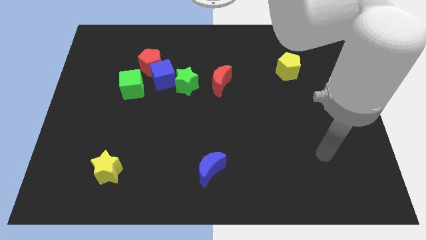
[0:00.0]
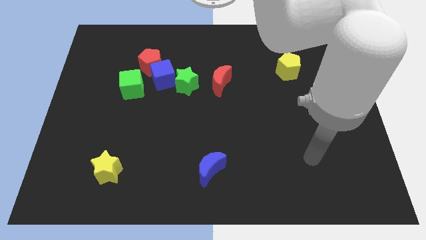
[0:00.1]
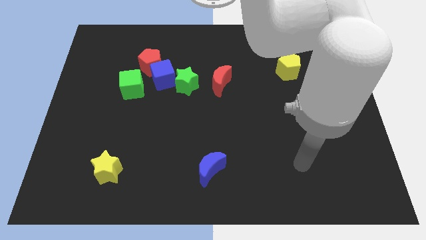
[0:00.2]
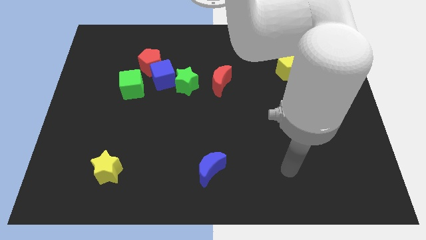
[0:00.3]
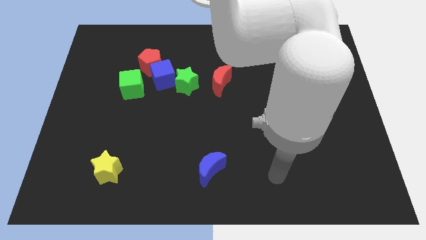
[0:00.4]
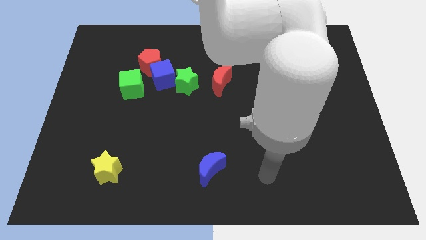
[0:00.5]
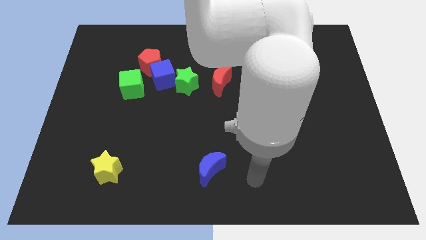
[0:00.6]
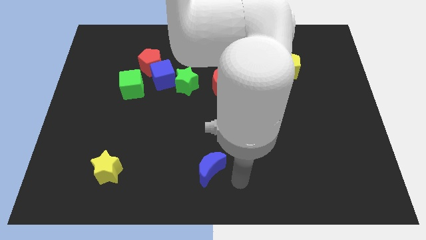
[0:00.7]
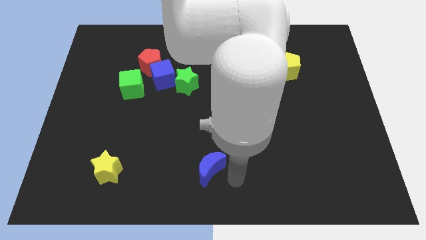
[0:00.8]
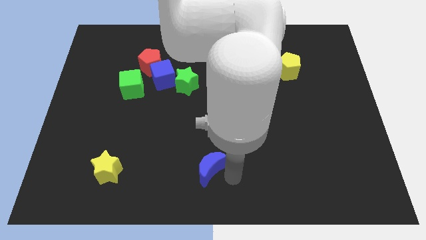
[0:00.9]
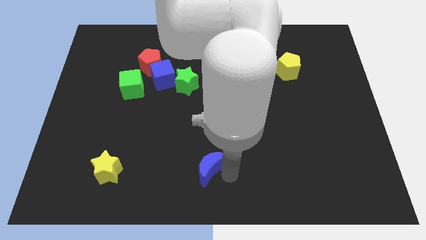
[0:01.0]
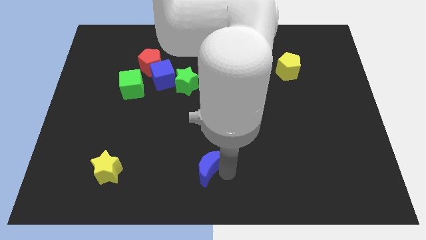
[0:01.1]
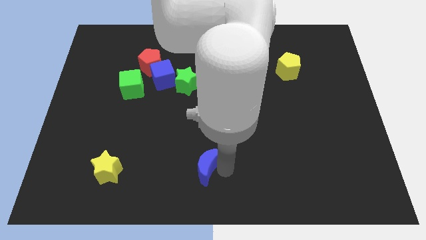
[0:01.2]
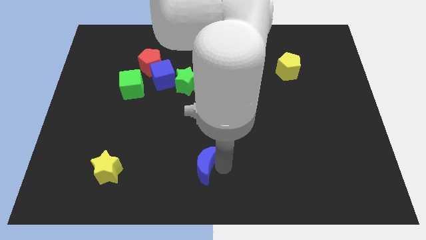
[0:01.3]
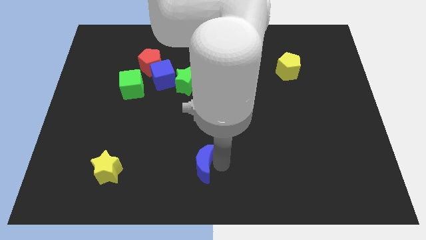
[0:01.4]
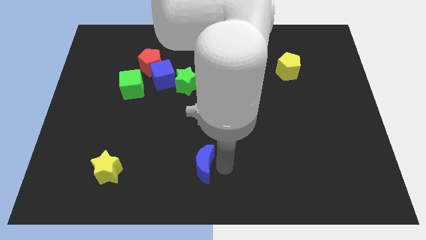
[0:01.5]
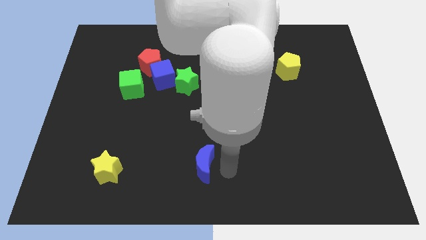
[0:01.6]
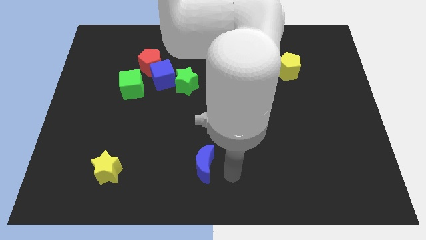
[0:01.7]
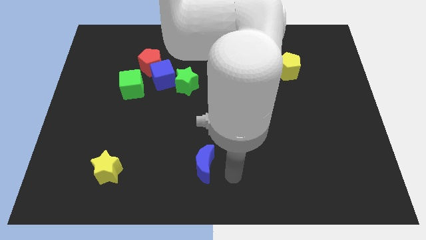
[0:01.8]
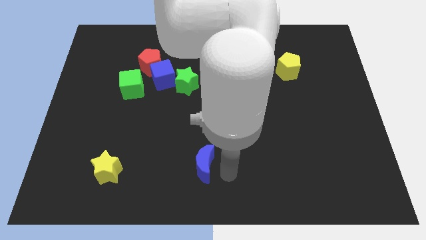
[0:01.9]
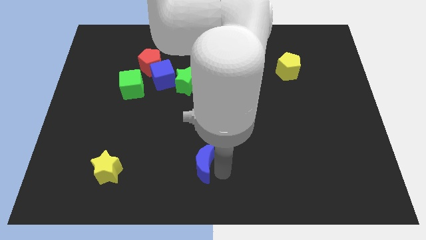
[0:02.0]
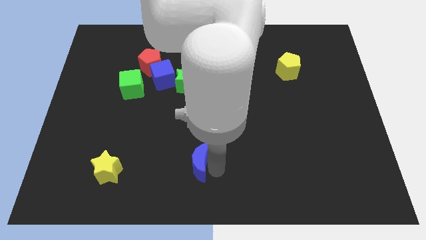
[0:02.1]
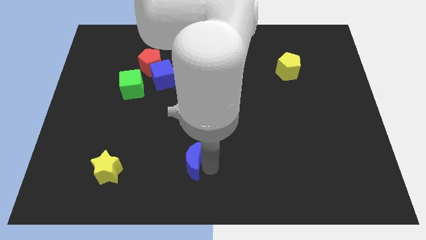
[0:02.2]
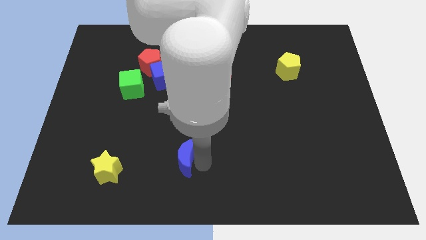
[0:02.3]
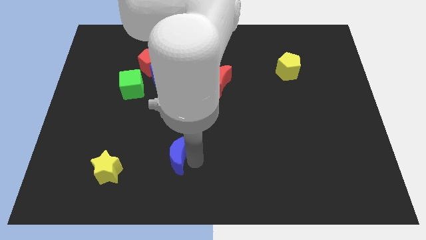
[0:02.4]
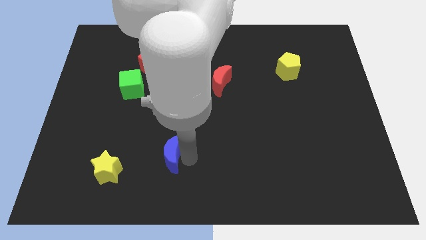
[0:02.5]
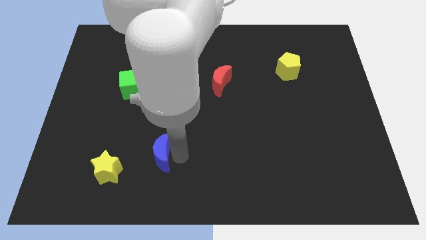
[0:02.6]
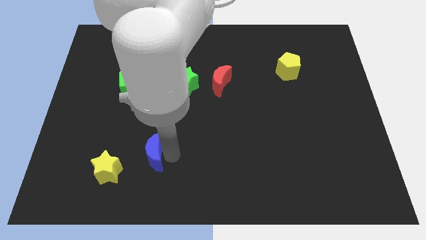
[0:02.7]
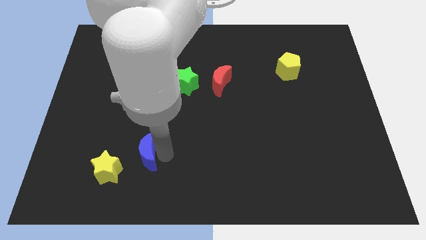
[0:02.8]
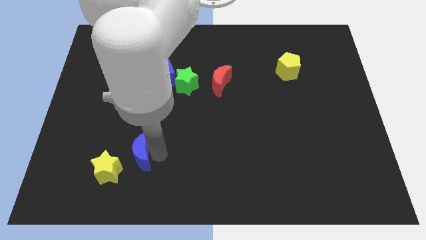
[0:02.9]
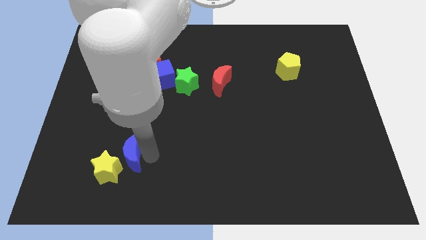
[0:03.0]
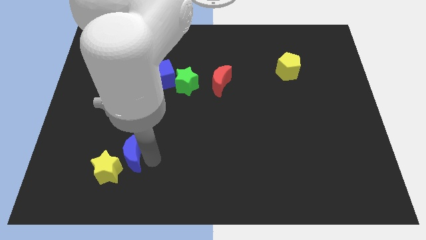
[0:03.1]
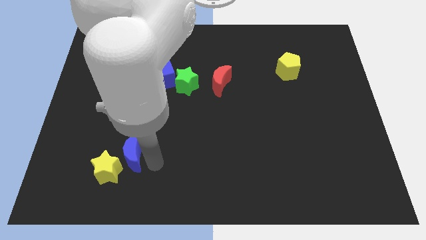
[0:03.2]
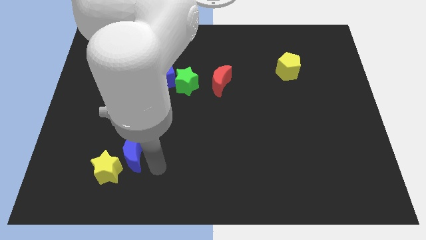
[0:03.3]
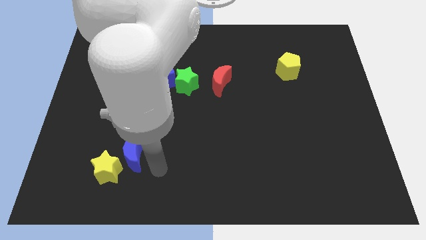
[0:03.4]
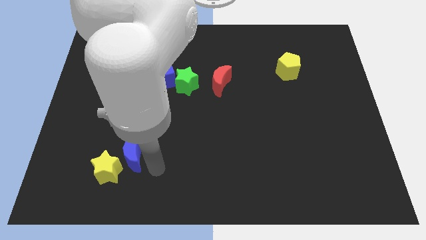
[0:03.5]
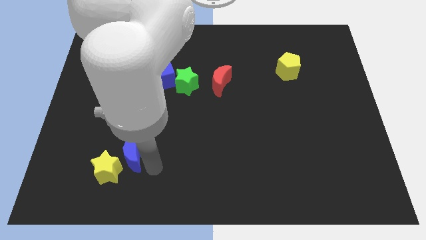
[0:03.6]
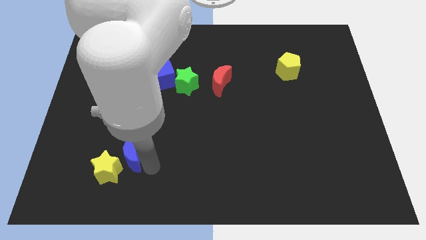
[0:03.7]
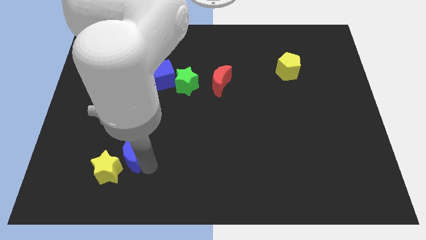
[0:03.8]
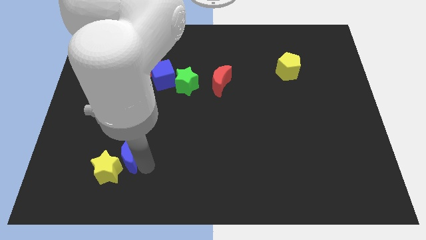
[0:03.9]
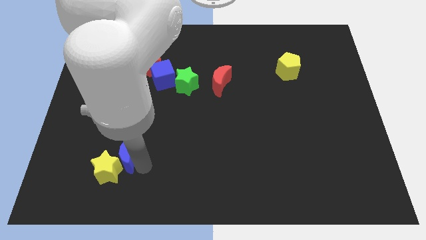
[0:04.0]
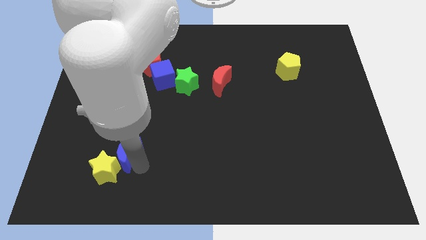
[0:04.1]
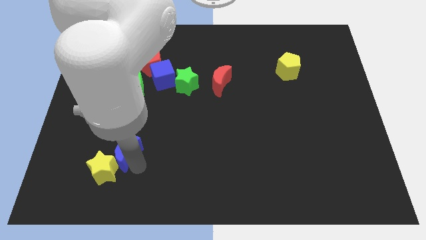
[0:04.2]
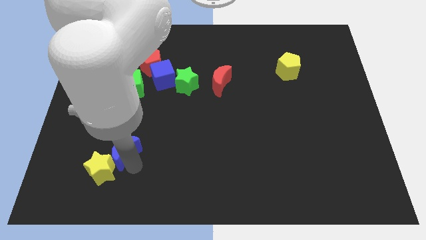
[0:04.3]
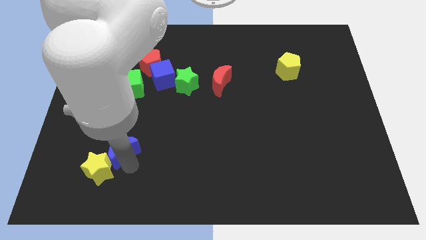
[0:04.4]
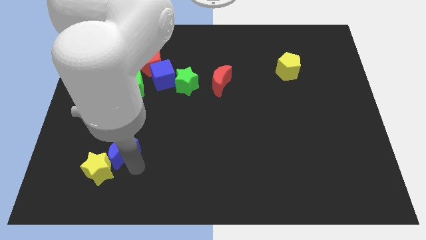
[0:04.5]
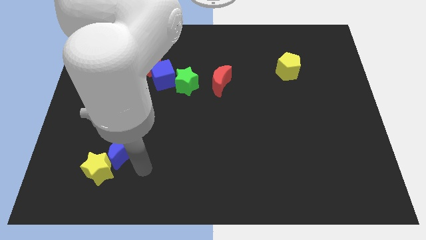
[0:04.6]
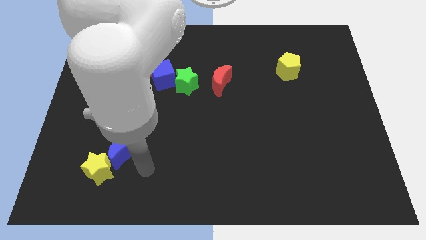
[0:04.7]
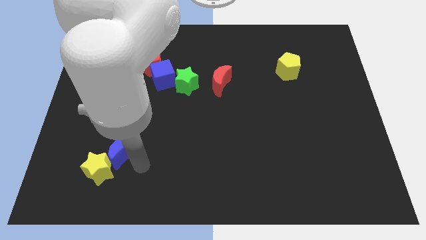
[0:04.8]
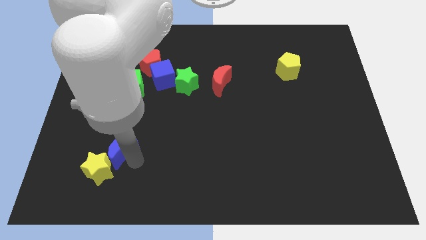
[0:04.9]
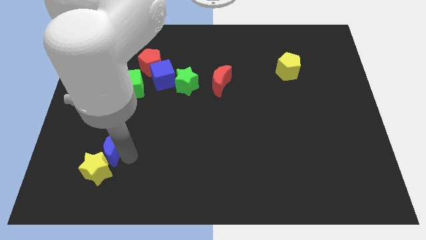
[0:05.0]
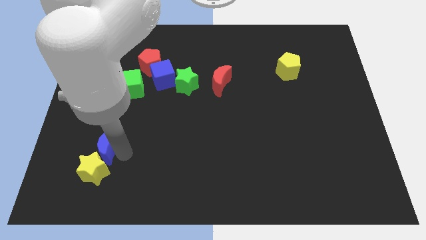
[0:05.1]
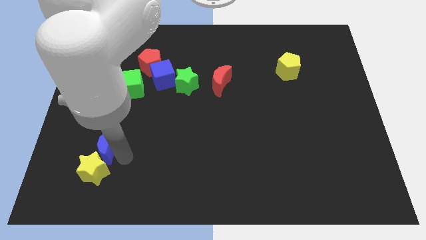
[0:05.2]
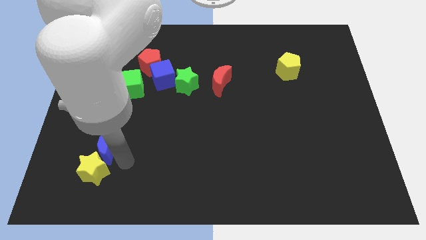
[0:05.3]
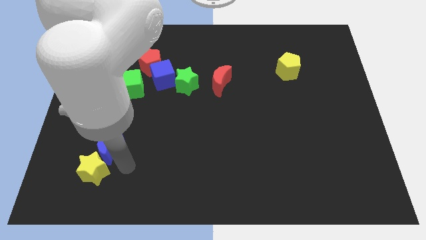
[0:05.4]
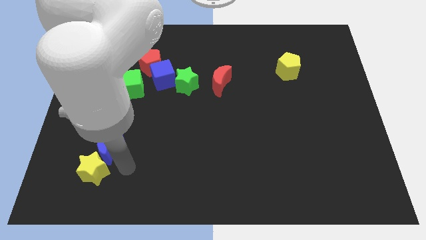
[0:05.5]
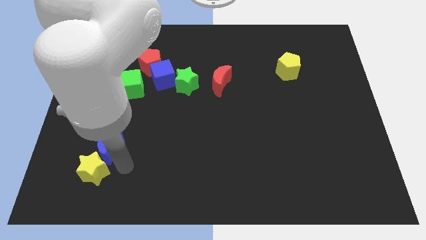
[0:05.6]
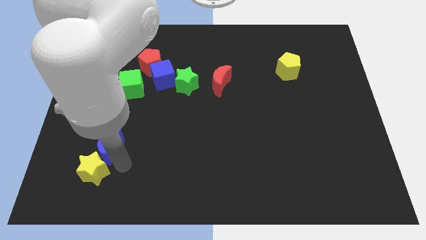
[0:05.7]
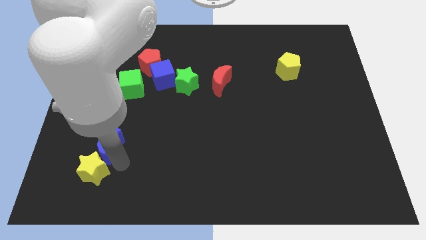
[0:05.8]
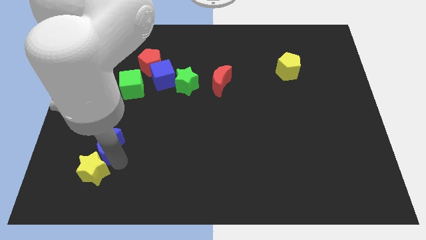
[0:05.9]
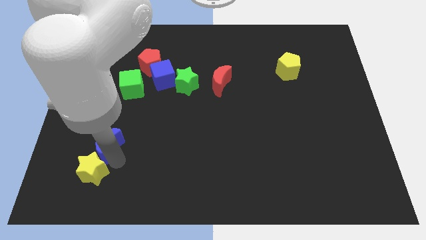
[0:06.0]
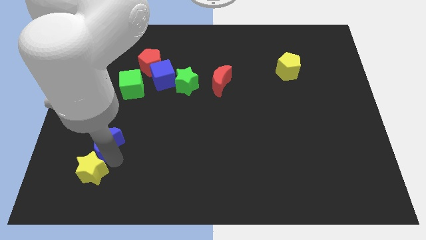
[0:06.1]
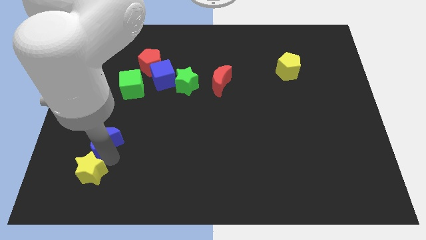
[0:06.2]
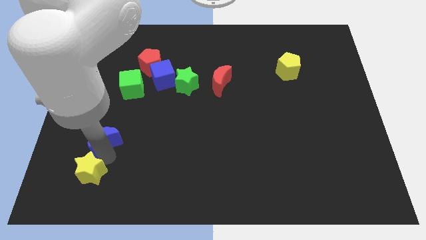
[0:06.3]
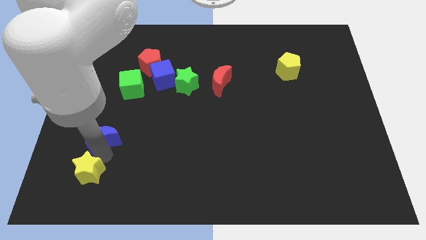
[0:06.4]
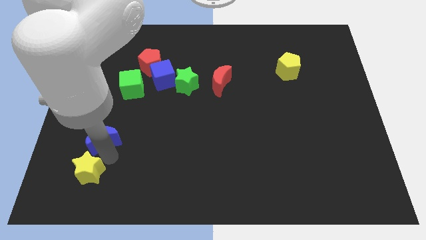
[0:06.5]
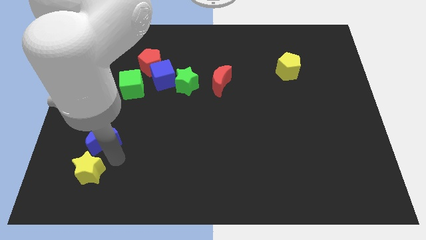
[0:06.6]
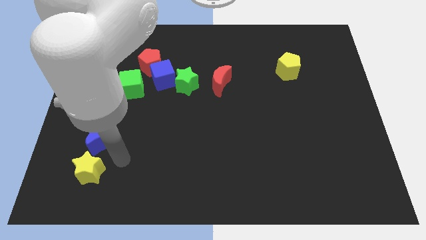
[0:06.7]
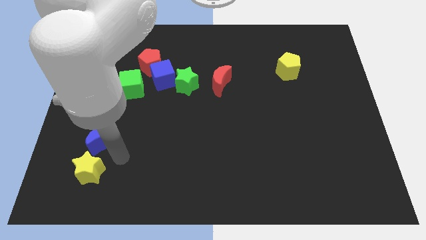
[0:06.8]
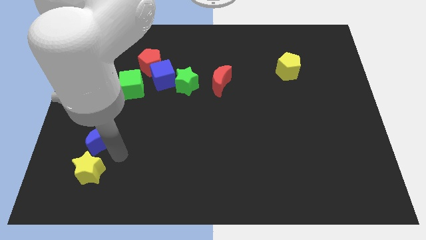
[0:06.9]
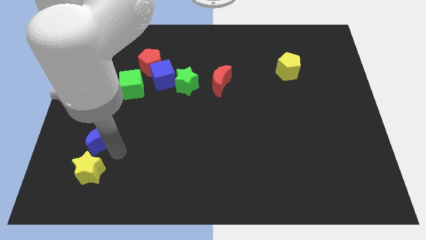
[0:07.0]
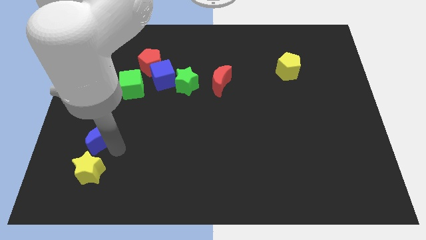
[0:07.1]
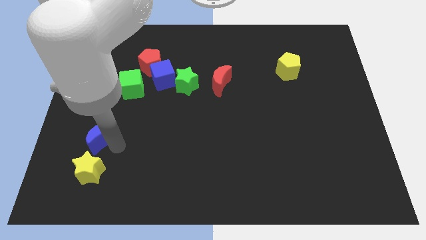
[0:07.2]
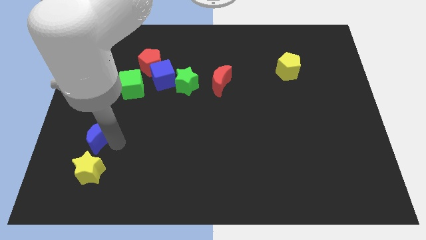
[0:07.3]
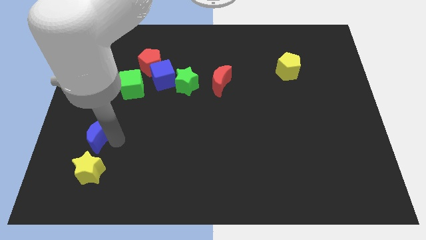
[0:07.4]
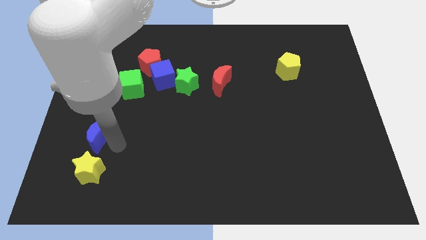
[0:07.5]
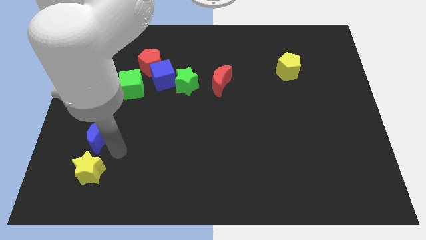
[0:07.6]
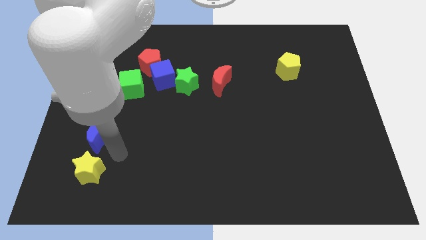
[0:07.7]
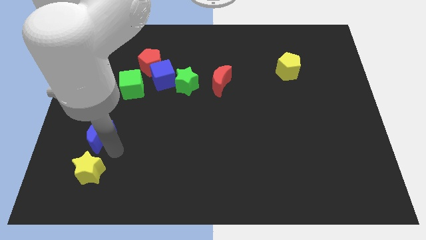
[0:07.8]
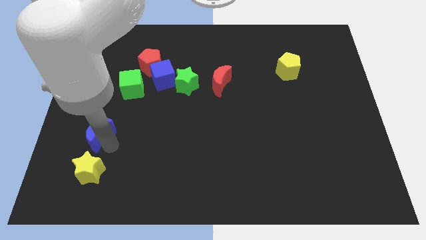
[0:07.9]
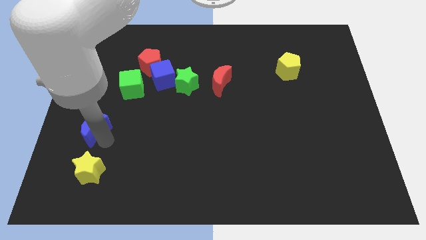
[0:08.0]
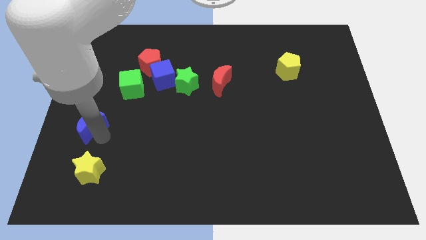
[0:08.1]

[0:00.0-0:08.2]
move the blue moon to the left side of the board
